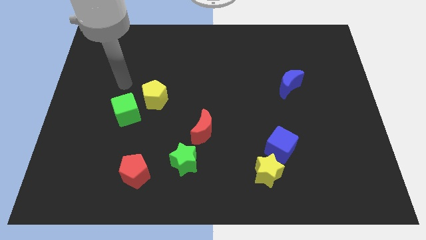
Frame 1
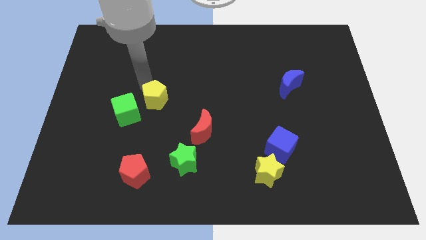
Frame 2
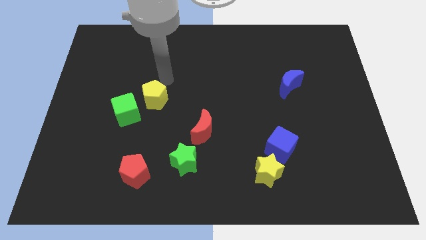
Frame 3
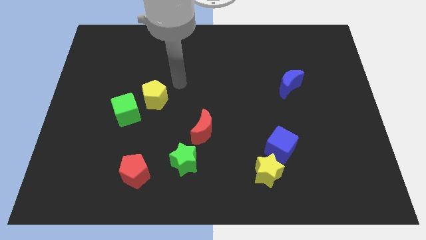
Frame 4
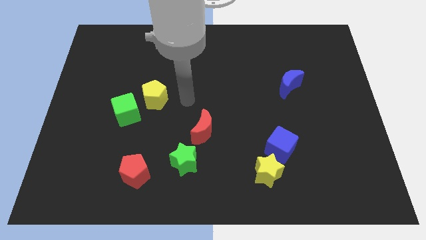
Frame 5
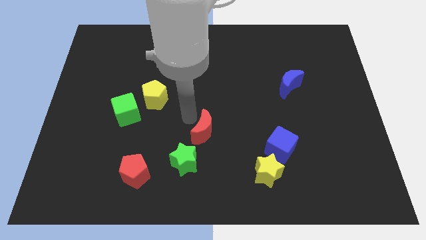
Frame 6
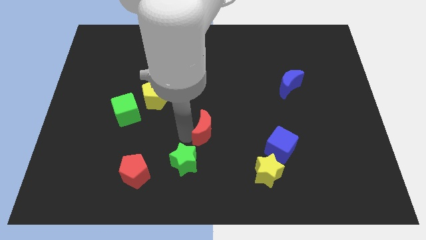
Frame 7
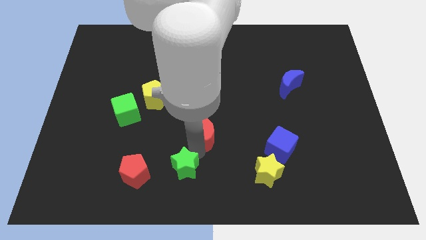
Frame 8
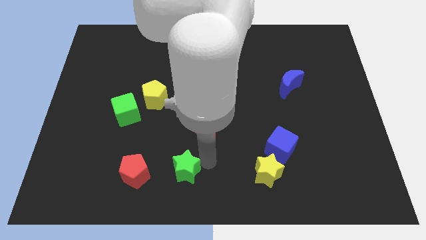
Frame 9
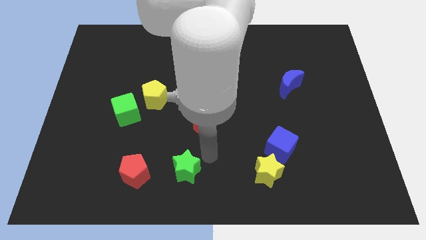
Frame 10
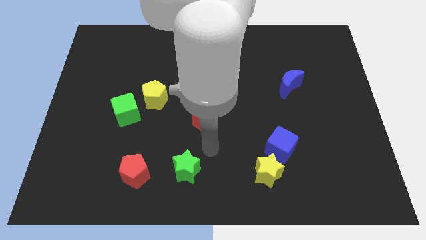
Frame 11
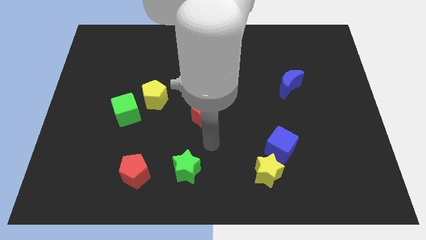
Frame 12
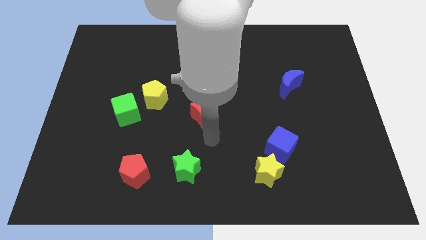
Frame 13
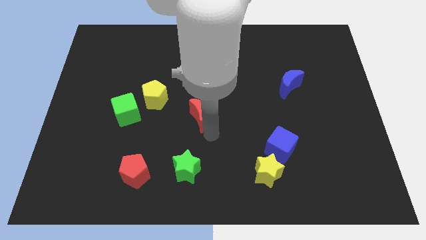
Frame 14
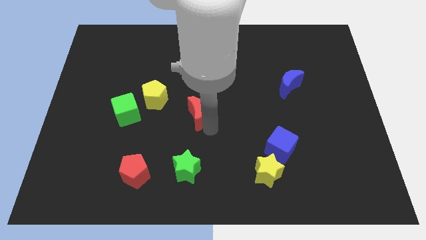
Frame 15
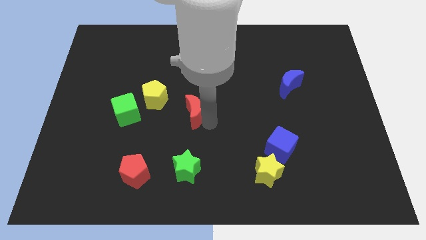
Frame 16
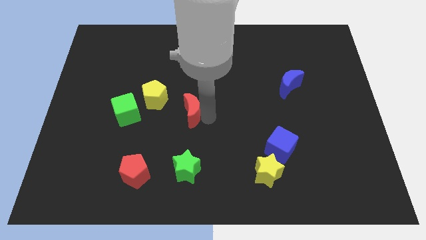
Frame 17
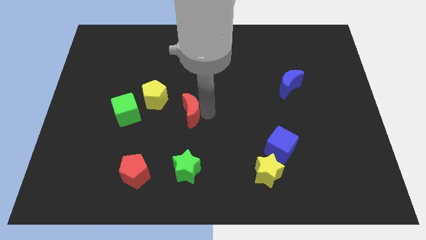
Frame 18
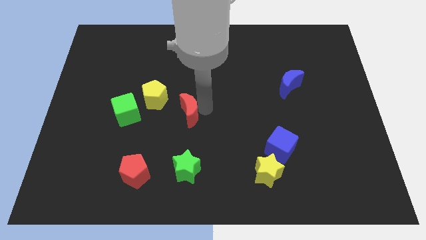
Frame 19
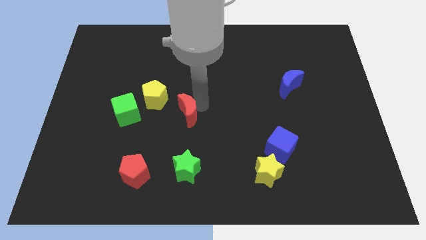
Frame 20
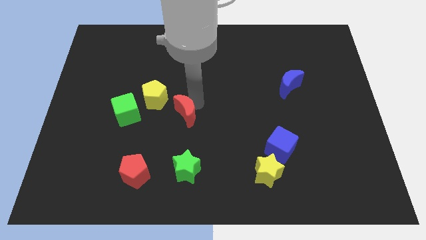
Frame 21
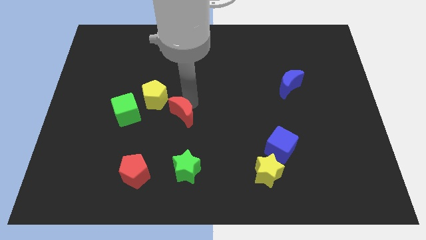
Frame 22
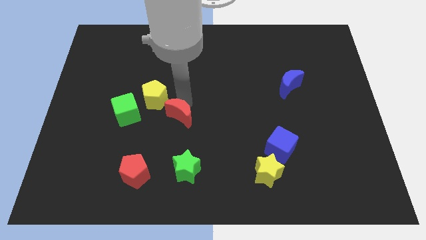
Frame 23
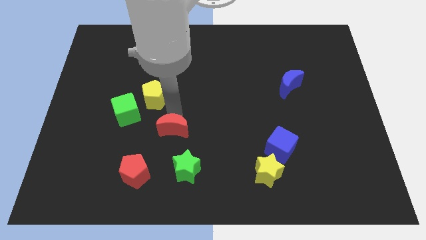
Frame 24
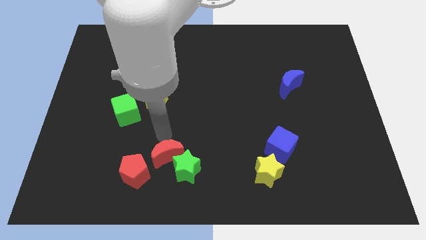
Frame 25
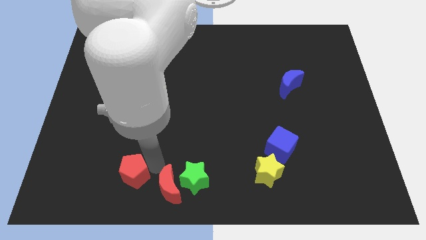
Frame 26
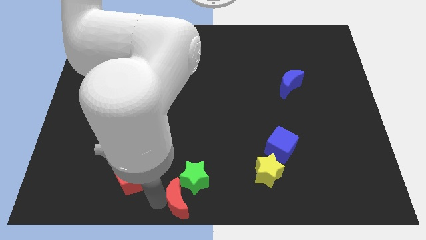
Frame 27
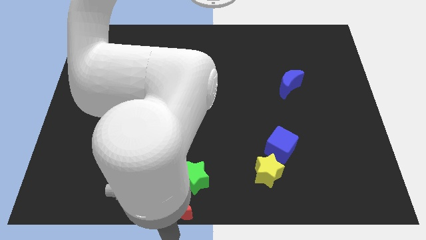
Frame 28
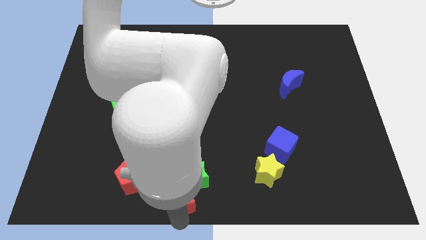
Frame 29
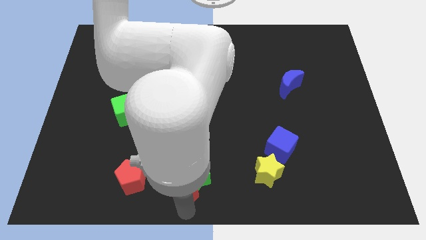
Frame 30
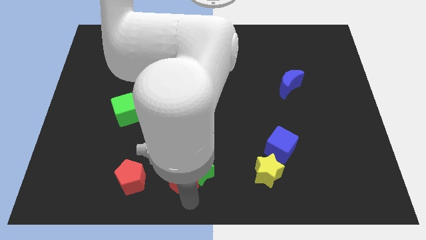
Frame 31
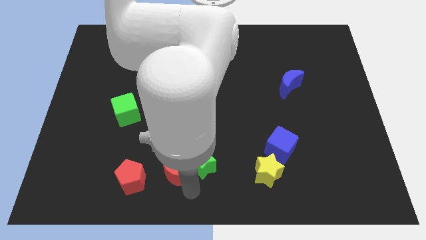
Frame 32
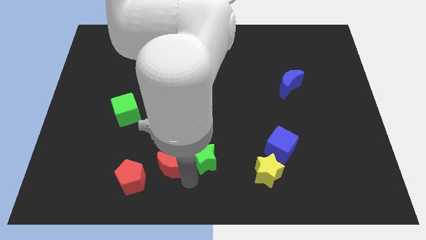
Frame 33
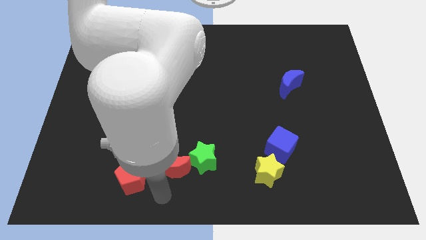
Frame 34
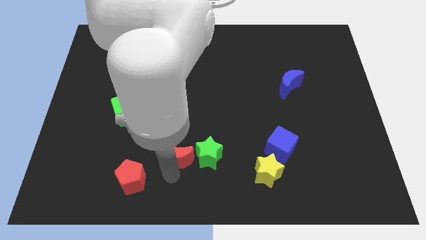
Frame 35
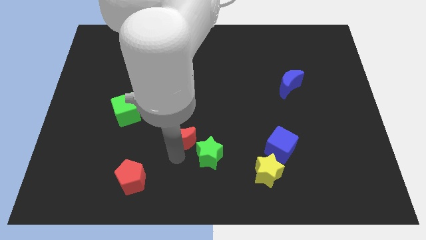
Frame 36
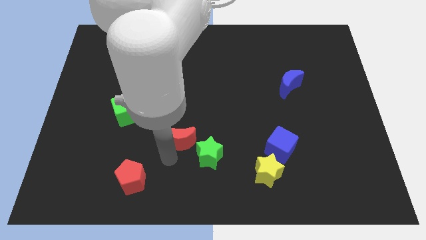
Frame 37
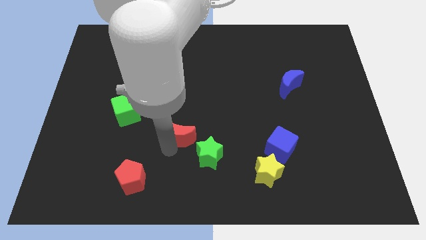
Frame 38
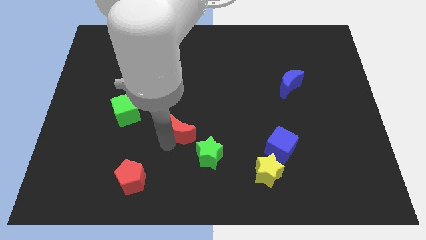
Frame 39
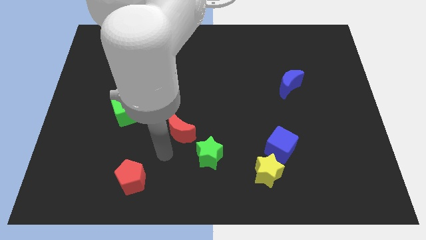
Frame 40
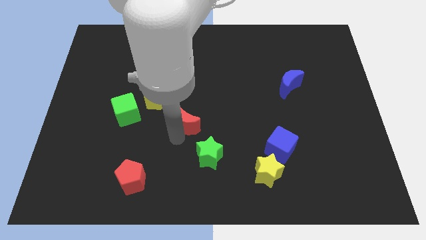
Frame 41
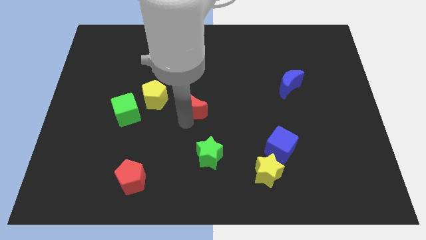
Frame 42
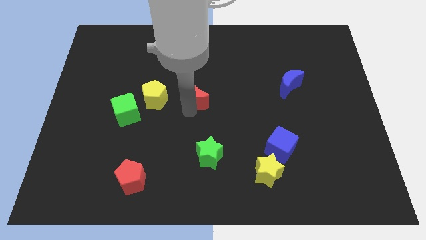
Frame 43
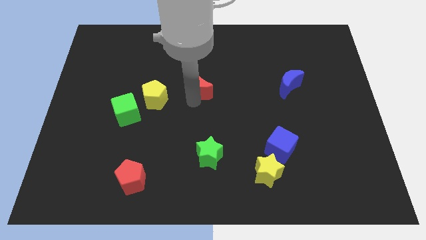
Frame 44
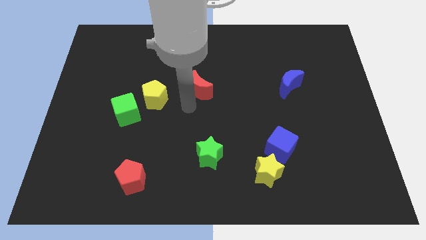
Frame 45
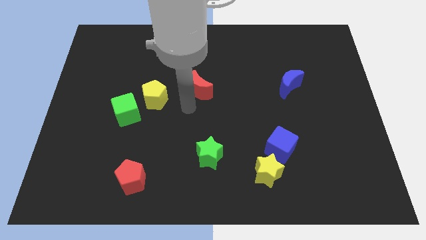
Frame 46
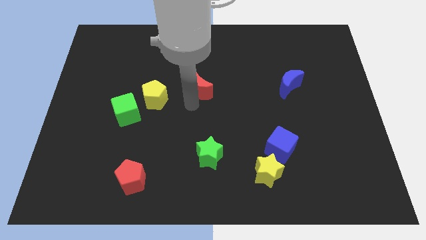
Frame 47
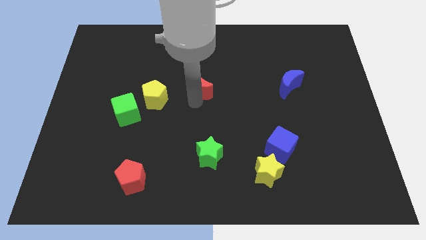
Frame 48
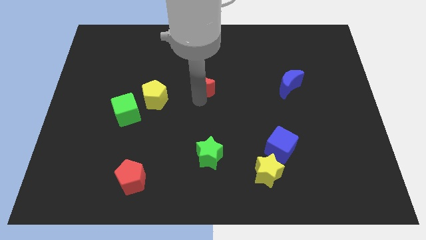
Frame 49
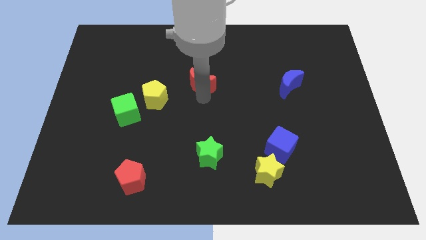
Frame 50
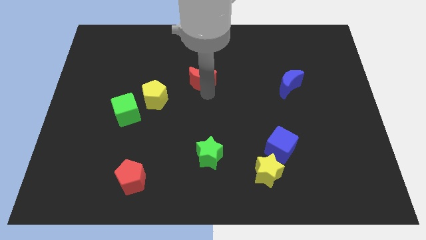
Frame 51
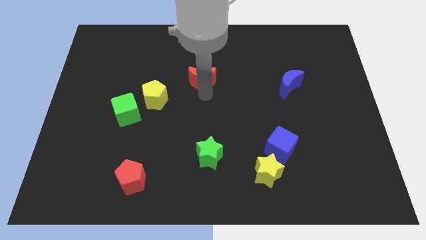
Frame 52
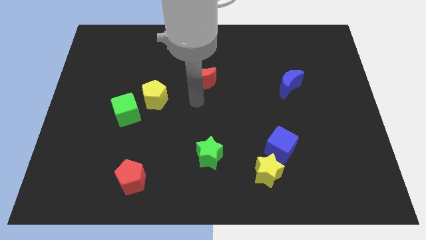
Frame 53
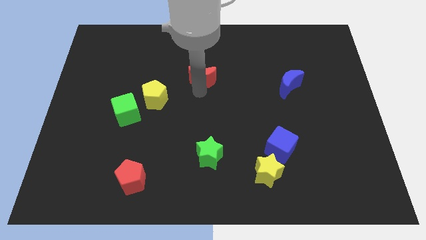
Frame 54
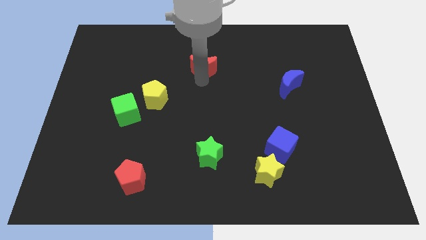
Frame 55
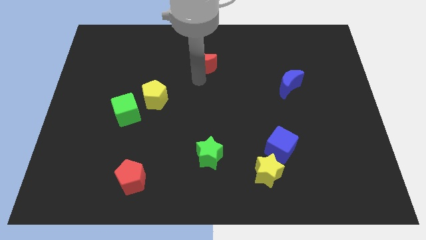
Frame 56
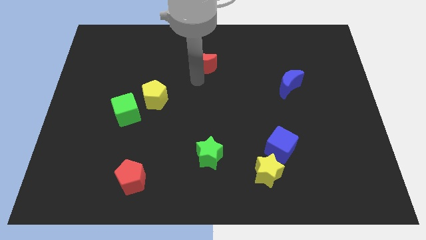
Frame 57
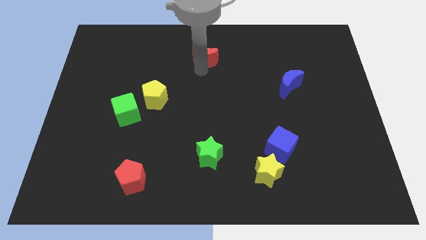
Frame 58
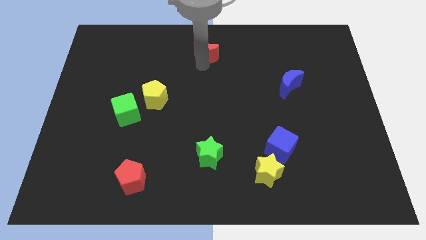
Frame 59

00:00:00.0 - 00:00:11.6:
put the red moon to the top side

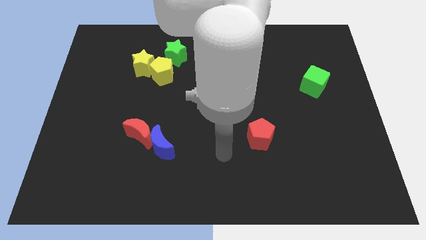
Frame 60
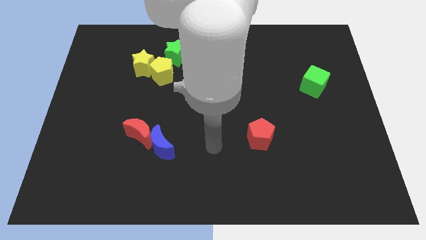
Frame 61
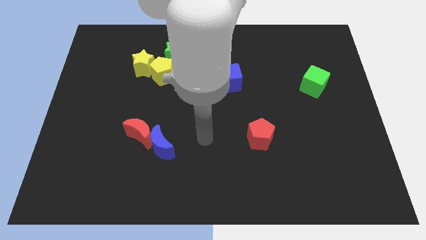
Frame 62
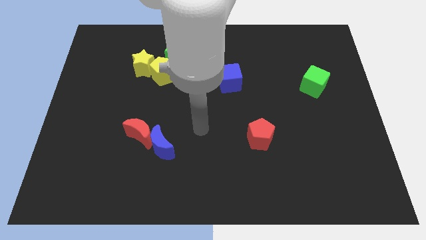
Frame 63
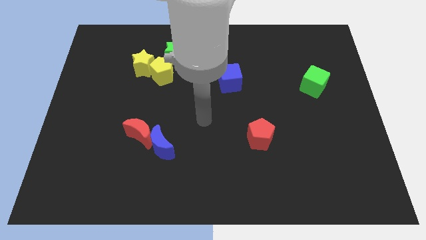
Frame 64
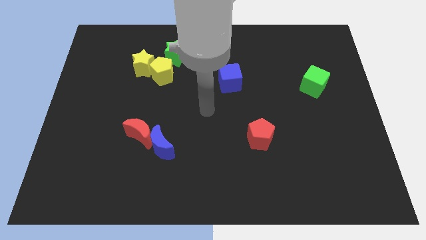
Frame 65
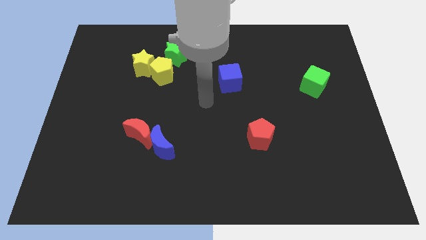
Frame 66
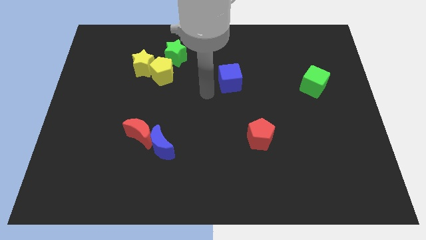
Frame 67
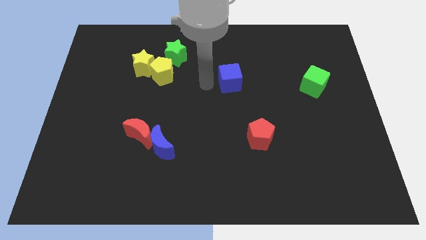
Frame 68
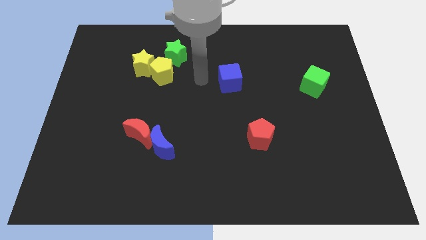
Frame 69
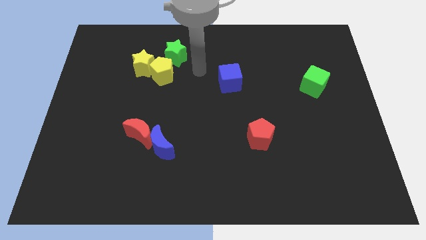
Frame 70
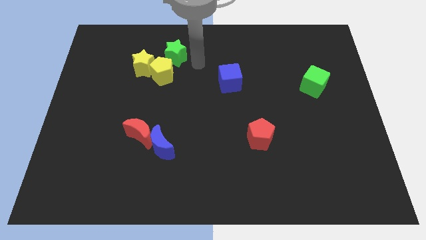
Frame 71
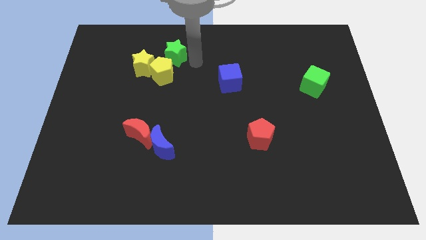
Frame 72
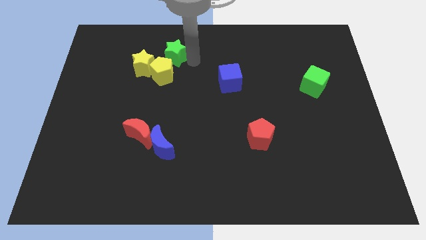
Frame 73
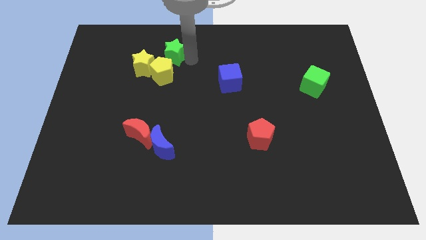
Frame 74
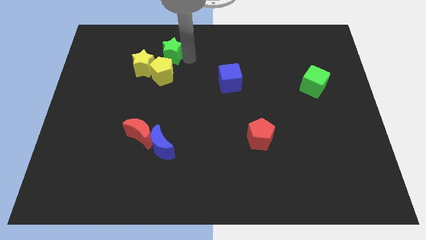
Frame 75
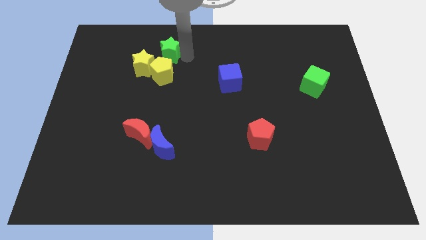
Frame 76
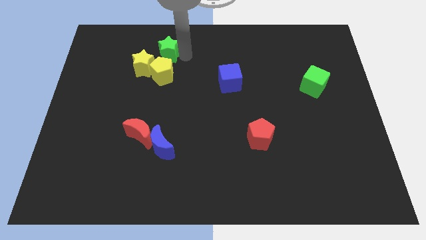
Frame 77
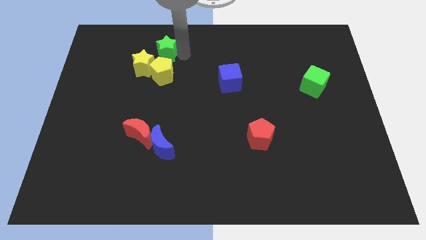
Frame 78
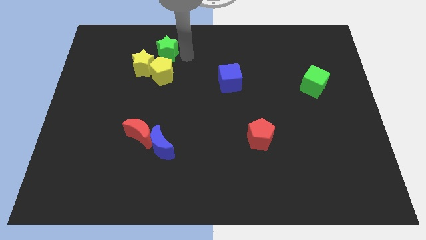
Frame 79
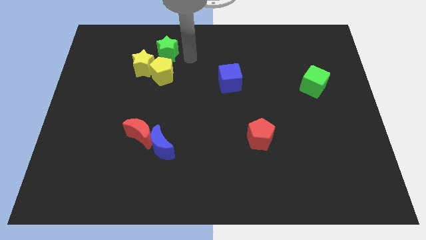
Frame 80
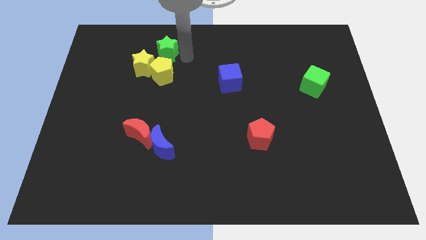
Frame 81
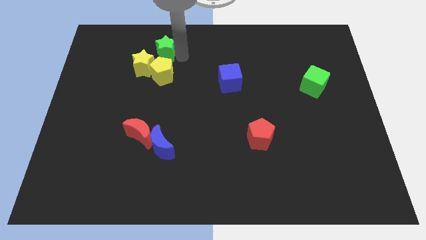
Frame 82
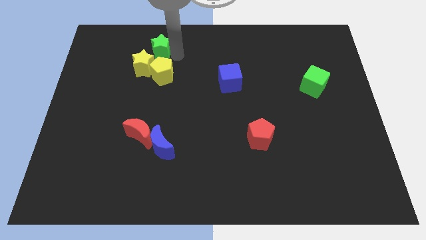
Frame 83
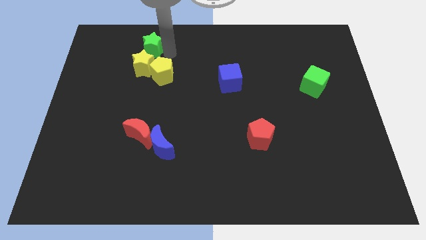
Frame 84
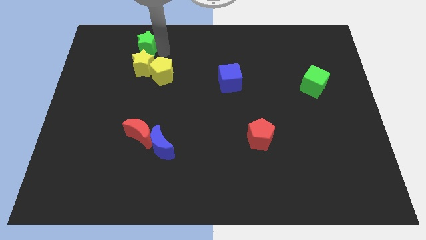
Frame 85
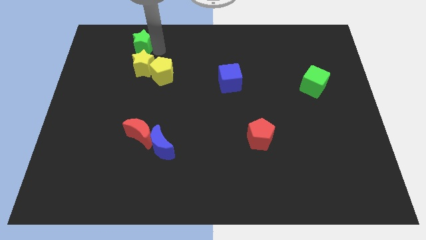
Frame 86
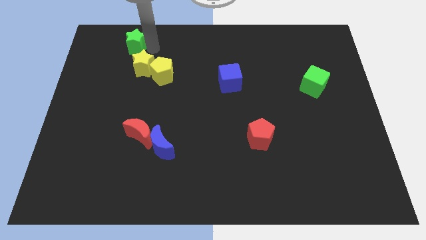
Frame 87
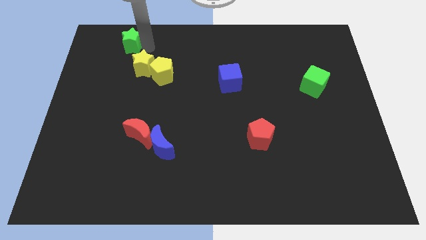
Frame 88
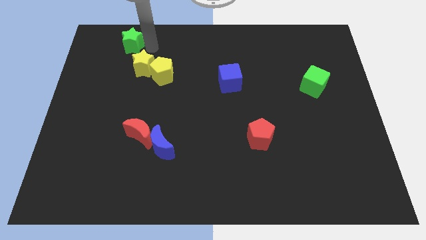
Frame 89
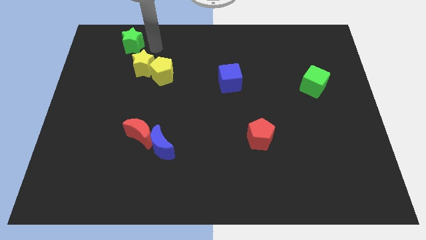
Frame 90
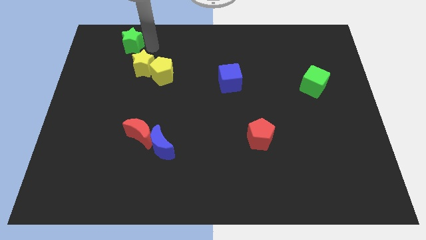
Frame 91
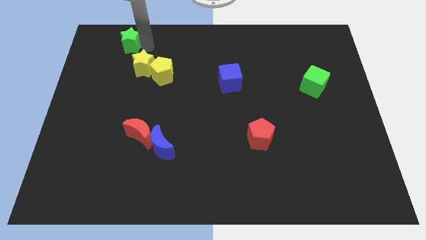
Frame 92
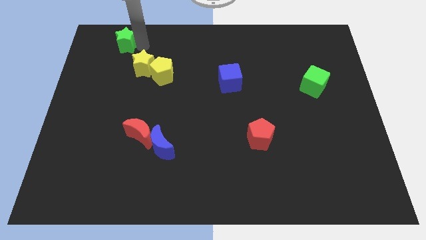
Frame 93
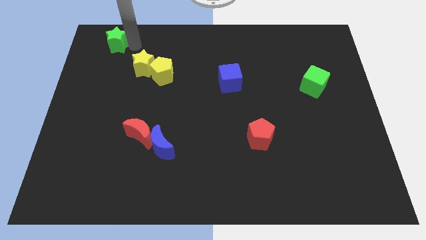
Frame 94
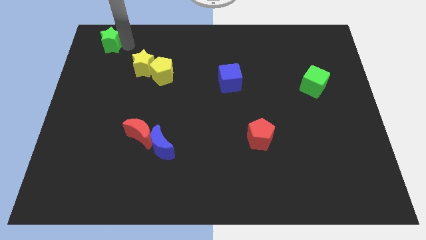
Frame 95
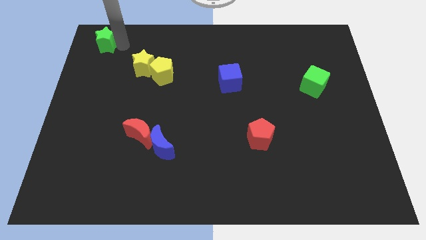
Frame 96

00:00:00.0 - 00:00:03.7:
slide the green star to the top left of the board
